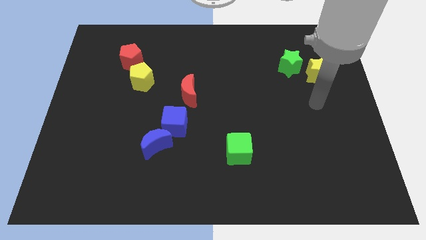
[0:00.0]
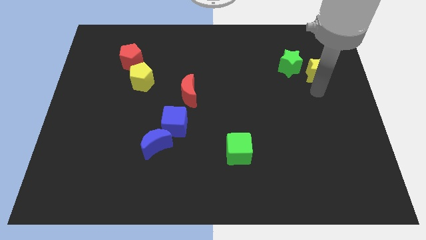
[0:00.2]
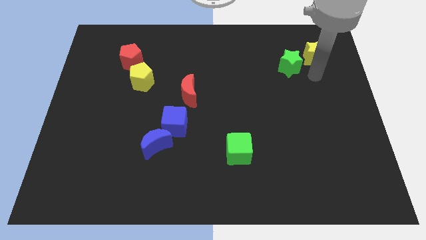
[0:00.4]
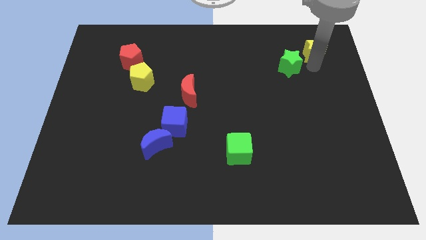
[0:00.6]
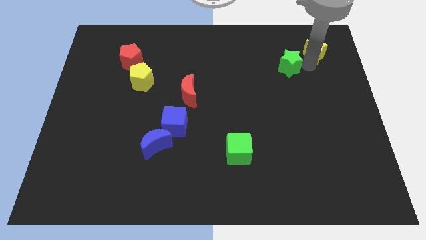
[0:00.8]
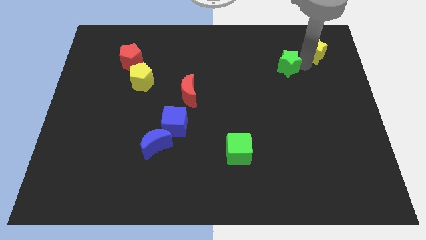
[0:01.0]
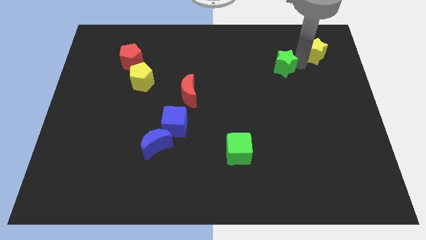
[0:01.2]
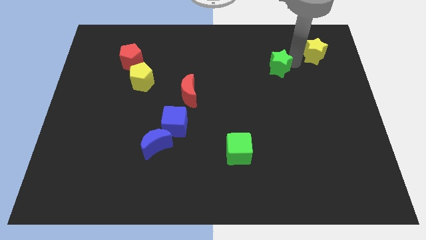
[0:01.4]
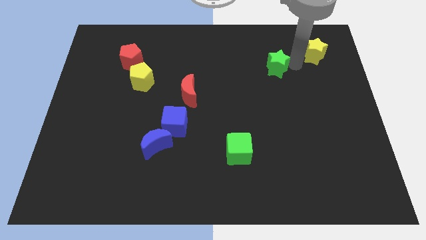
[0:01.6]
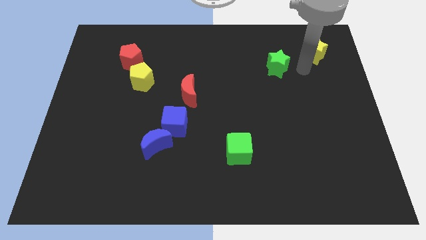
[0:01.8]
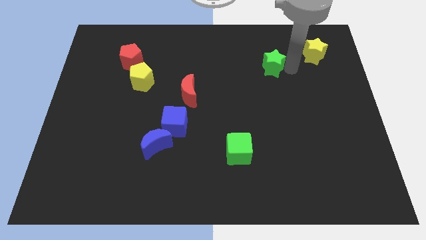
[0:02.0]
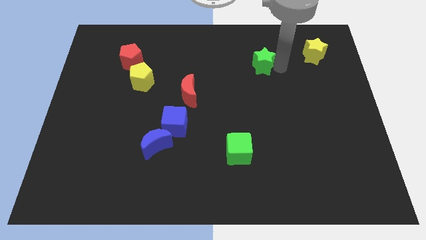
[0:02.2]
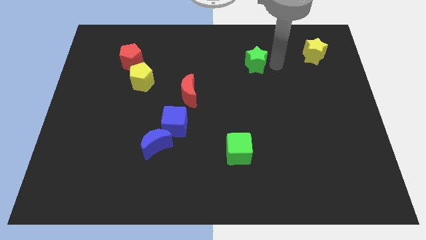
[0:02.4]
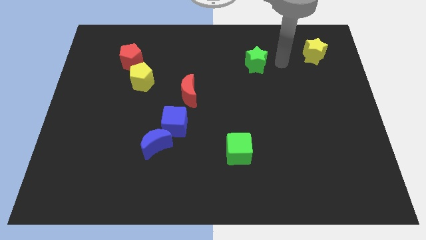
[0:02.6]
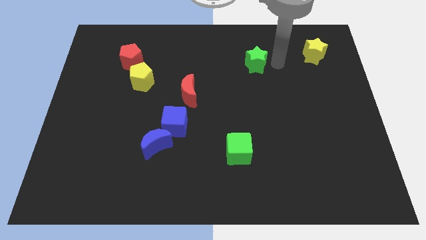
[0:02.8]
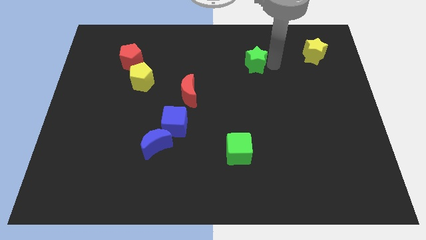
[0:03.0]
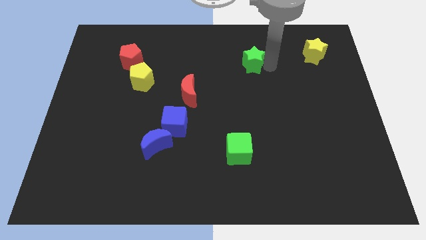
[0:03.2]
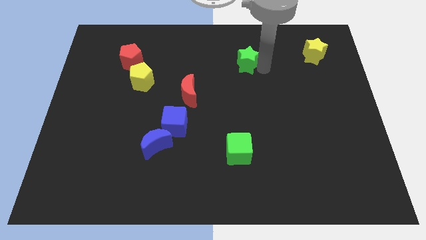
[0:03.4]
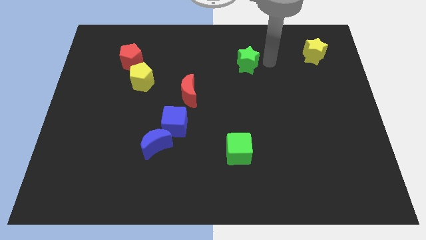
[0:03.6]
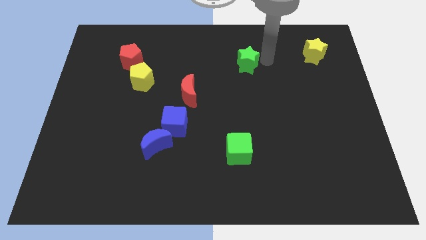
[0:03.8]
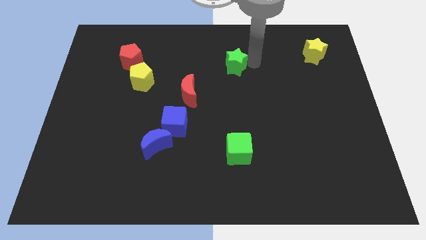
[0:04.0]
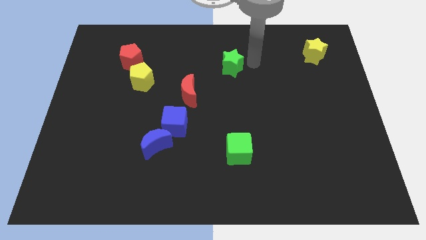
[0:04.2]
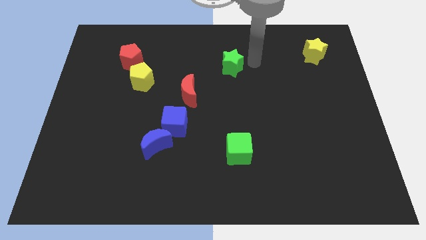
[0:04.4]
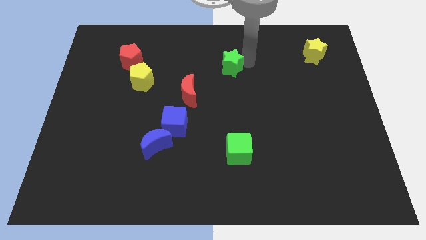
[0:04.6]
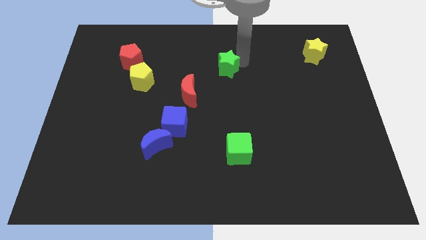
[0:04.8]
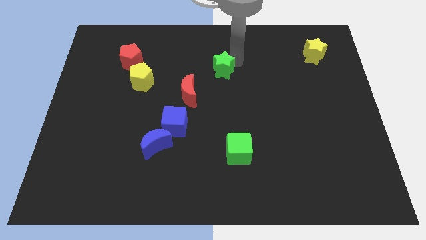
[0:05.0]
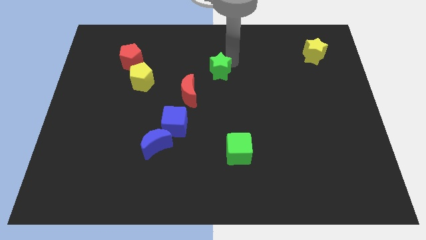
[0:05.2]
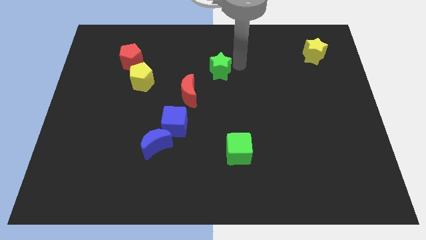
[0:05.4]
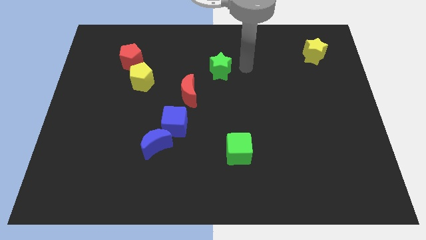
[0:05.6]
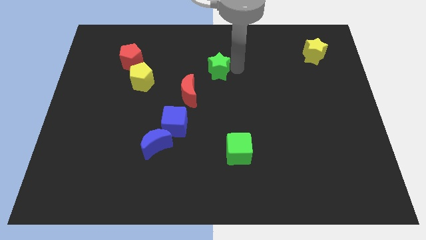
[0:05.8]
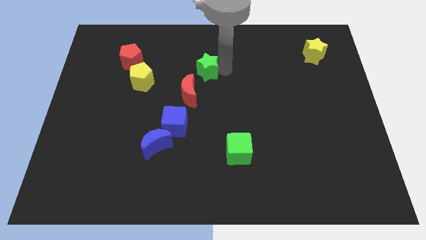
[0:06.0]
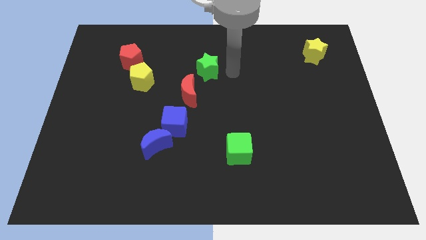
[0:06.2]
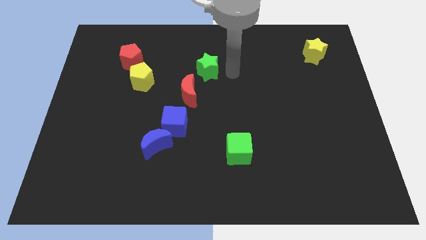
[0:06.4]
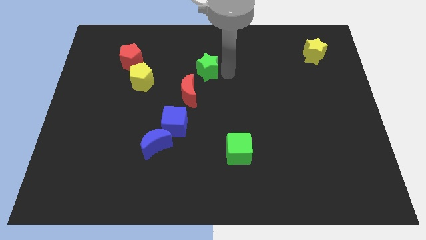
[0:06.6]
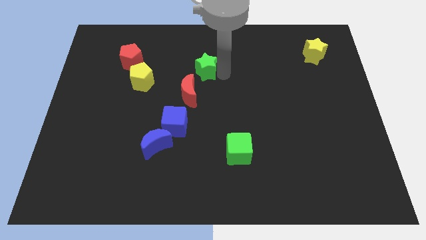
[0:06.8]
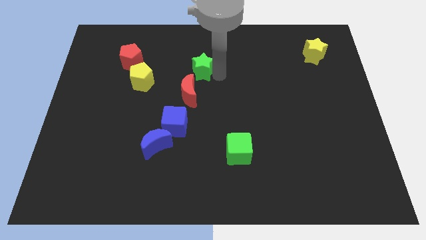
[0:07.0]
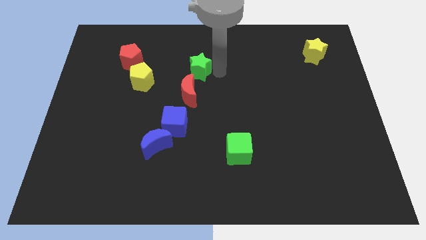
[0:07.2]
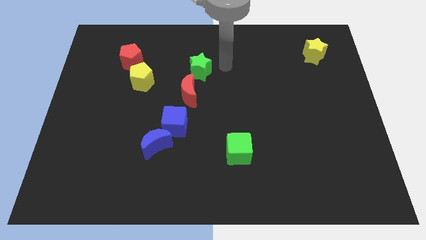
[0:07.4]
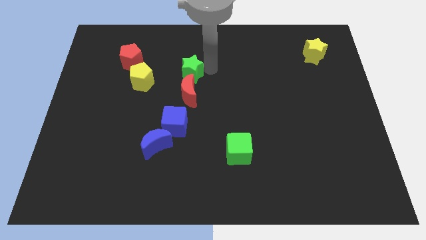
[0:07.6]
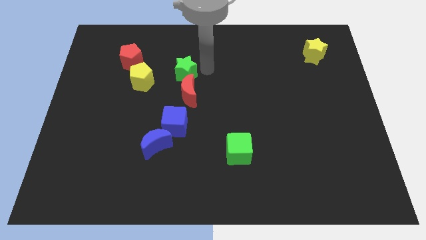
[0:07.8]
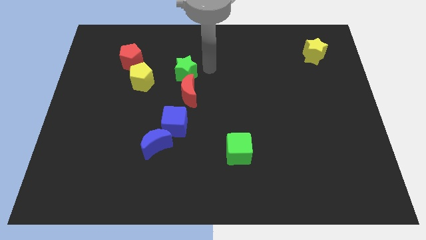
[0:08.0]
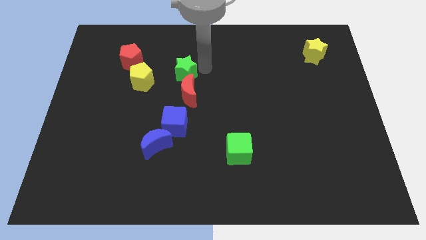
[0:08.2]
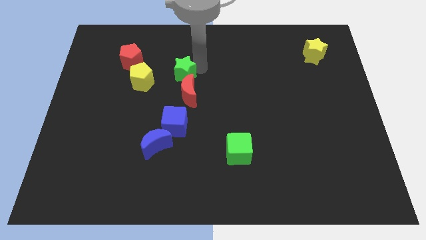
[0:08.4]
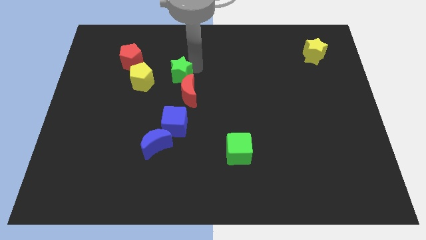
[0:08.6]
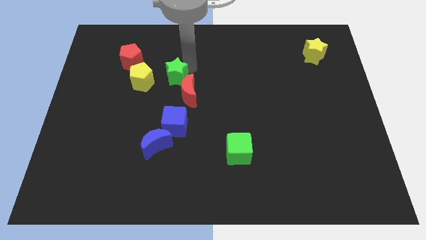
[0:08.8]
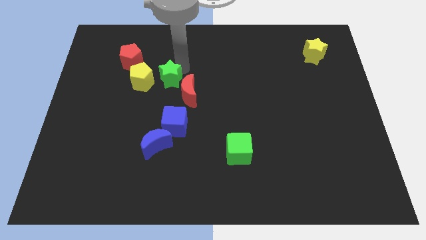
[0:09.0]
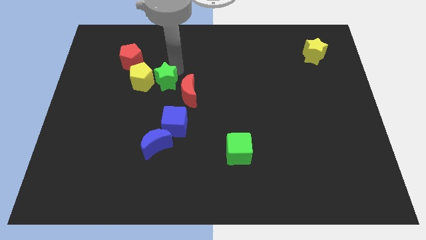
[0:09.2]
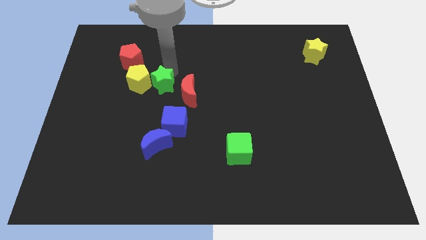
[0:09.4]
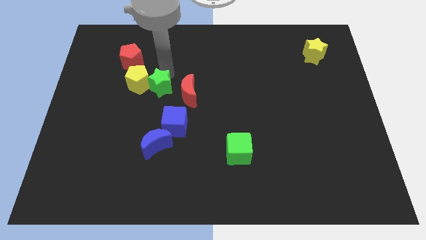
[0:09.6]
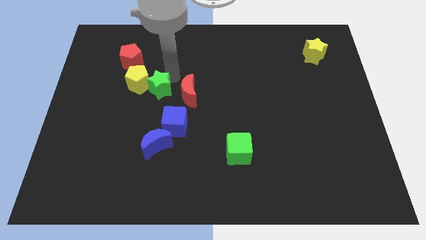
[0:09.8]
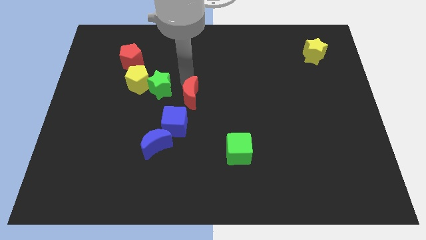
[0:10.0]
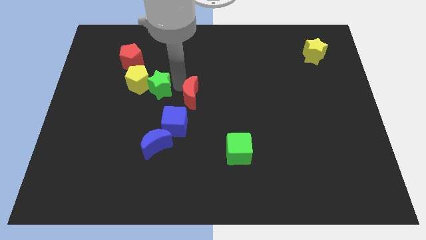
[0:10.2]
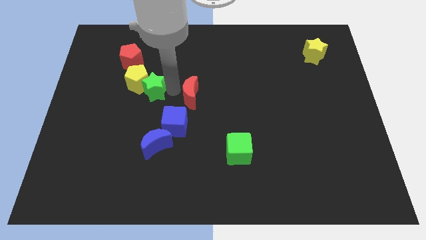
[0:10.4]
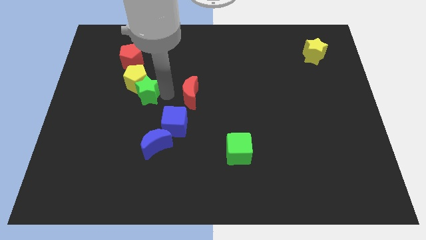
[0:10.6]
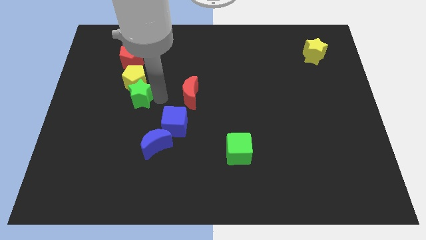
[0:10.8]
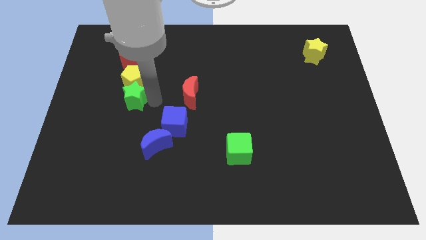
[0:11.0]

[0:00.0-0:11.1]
put the green star to the bottom left of the yellow pentagon

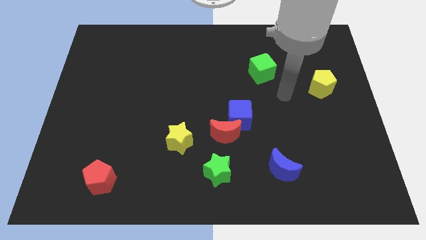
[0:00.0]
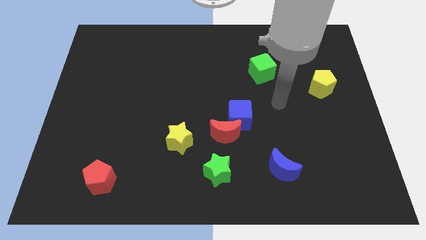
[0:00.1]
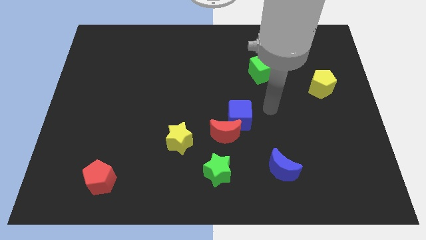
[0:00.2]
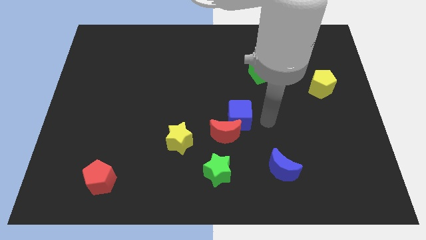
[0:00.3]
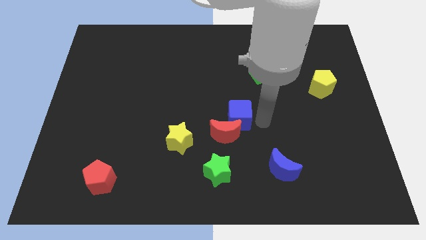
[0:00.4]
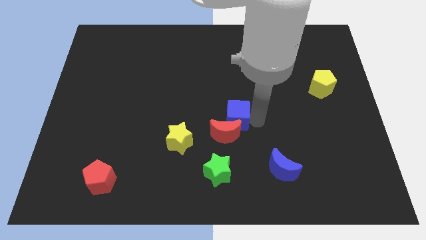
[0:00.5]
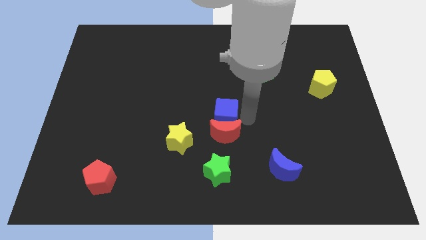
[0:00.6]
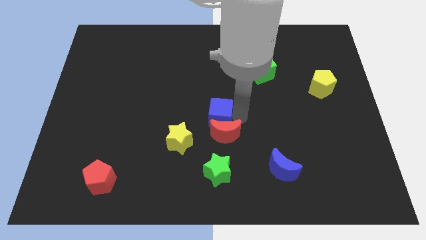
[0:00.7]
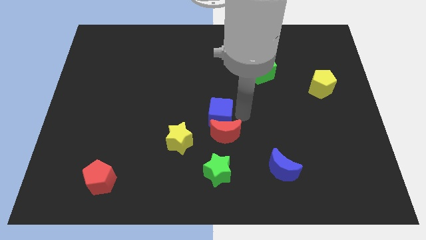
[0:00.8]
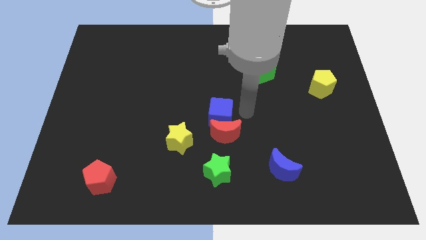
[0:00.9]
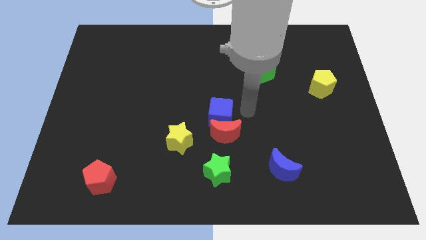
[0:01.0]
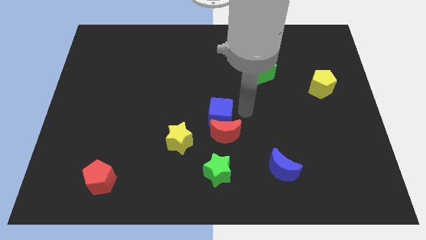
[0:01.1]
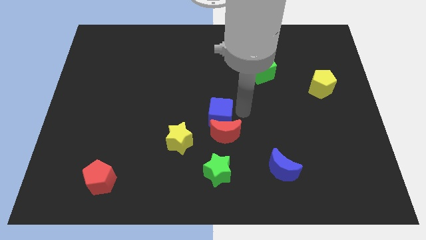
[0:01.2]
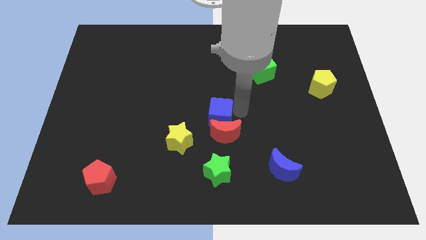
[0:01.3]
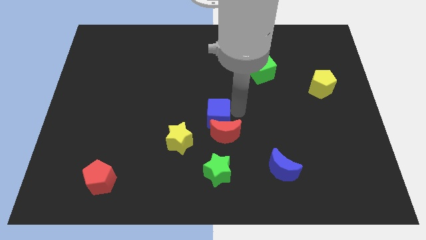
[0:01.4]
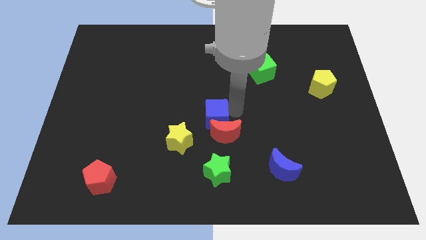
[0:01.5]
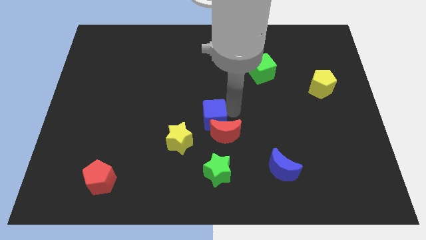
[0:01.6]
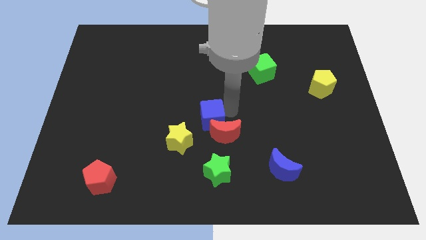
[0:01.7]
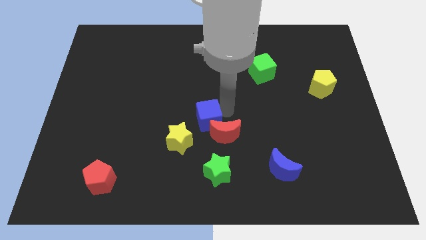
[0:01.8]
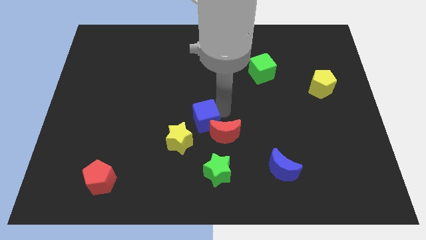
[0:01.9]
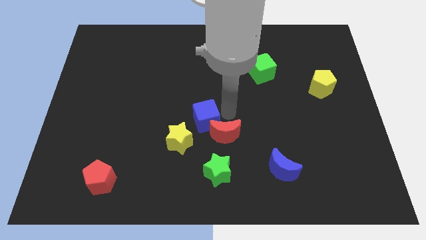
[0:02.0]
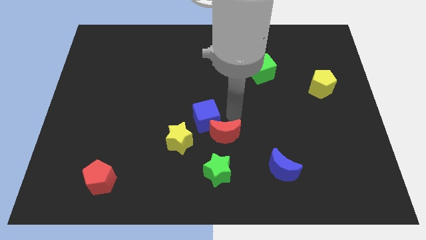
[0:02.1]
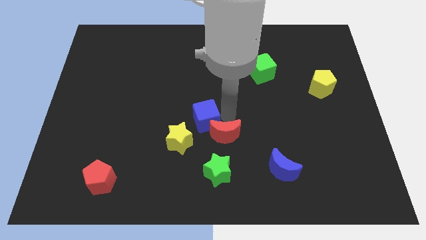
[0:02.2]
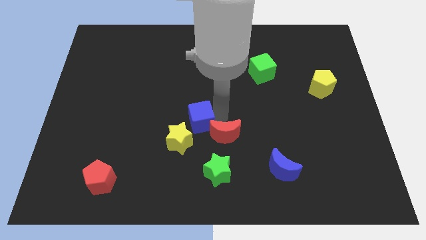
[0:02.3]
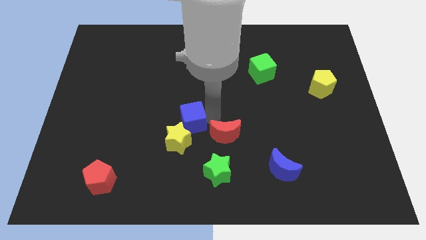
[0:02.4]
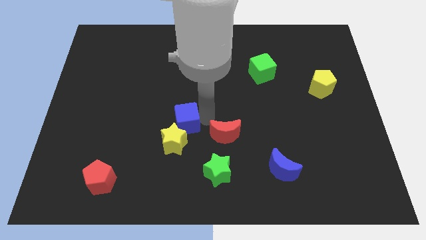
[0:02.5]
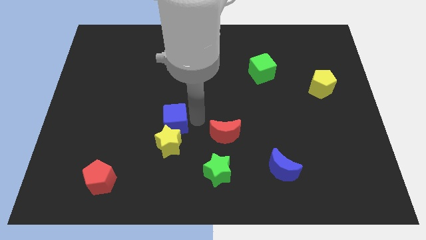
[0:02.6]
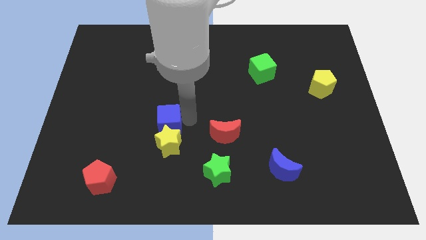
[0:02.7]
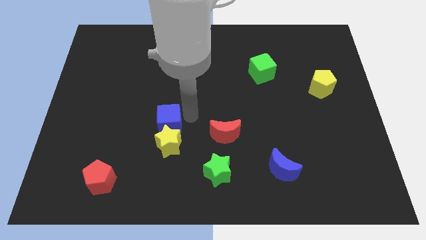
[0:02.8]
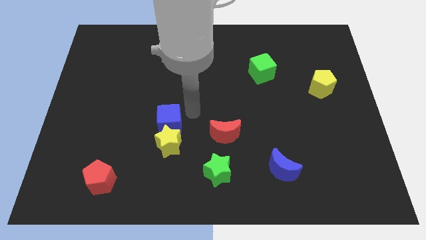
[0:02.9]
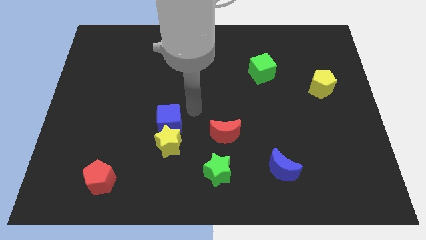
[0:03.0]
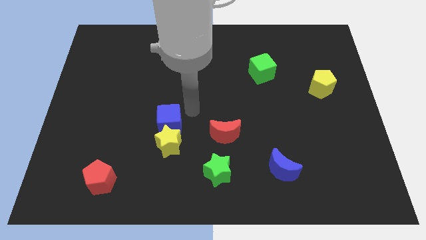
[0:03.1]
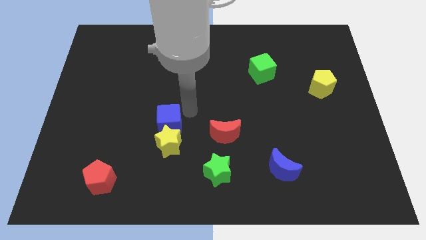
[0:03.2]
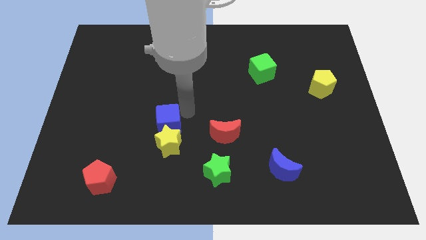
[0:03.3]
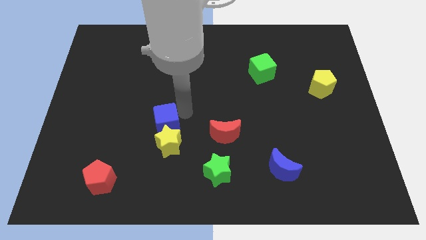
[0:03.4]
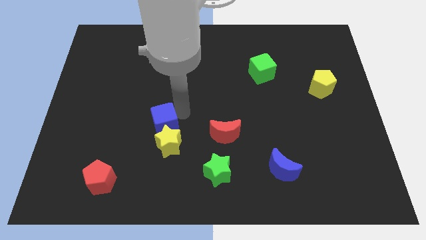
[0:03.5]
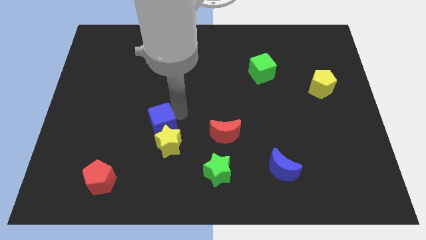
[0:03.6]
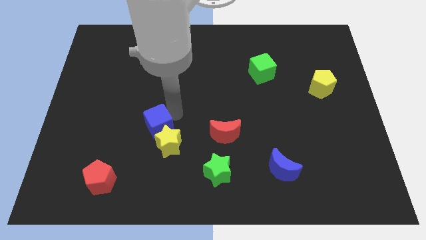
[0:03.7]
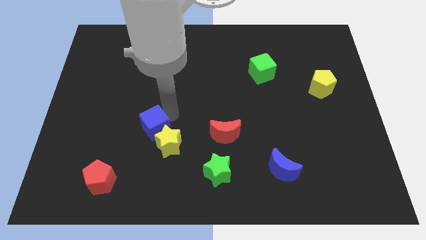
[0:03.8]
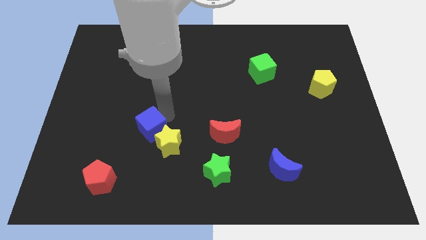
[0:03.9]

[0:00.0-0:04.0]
move the blue cube to the left of the yellow star
